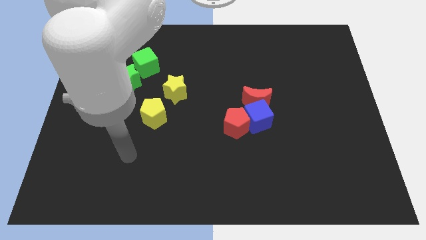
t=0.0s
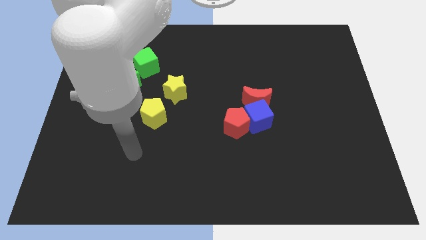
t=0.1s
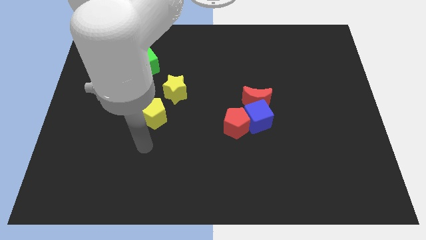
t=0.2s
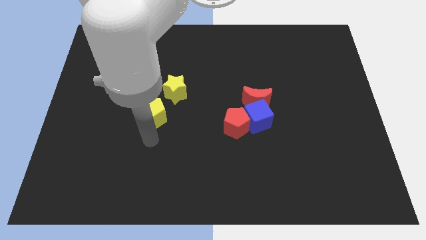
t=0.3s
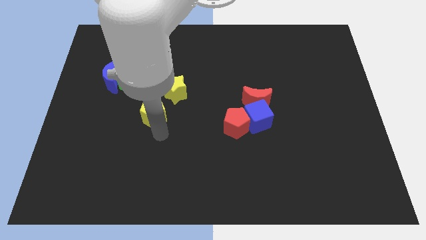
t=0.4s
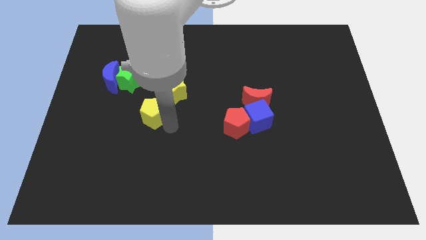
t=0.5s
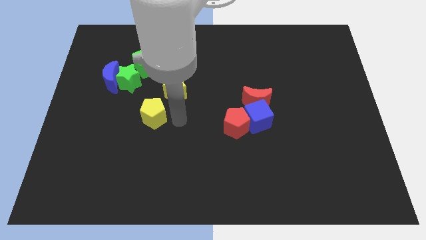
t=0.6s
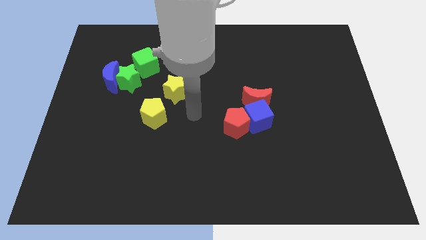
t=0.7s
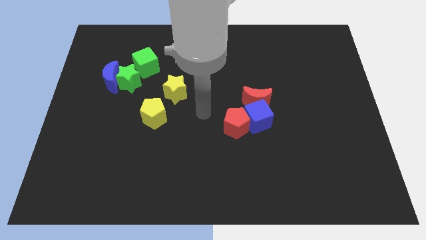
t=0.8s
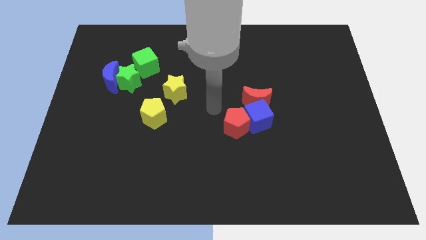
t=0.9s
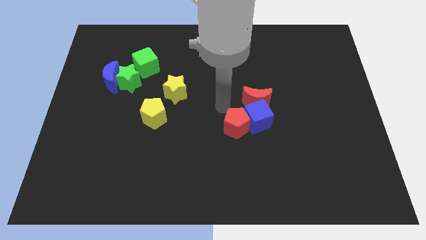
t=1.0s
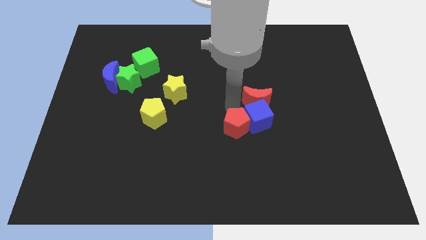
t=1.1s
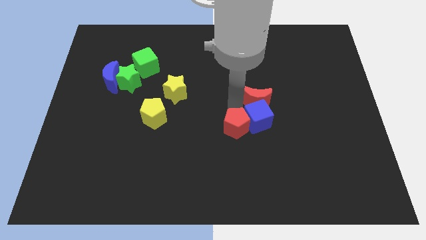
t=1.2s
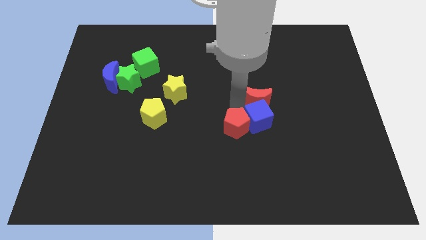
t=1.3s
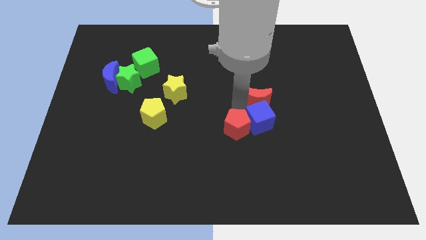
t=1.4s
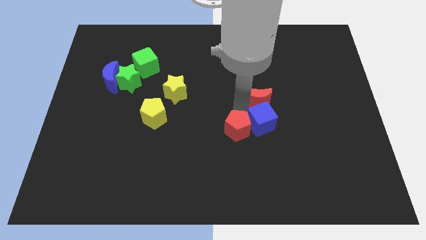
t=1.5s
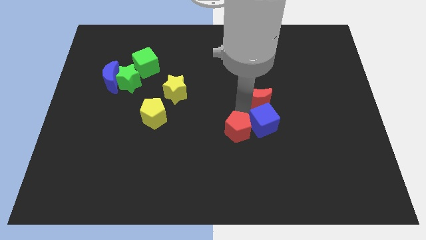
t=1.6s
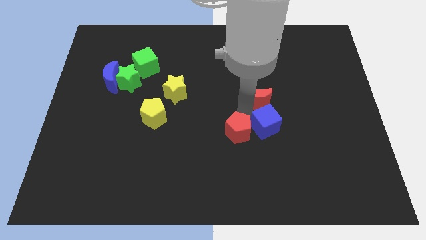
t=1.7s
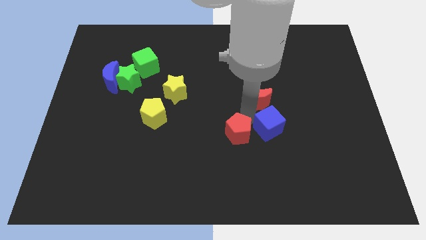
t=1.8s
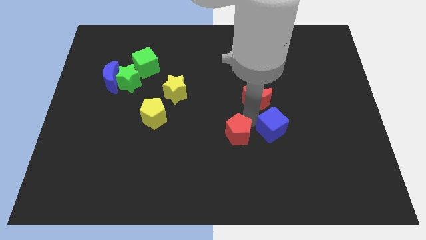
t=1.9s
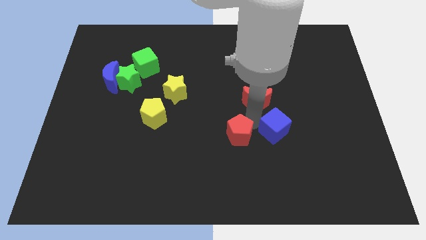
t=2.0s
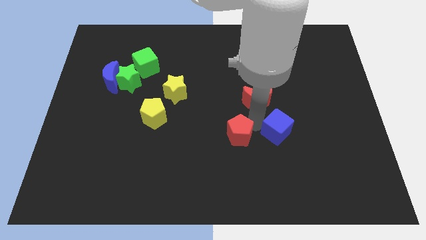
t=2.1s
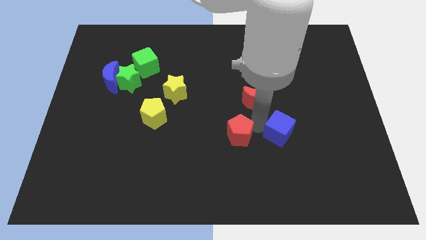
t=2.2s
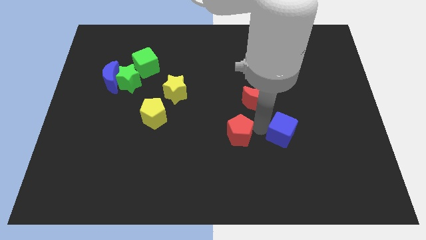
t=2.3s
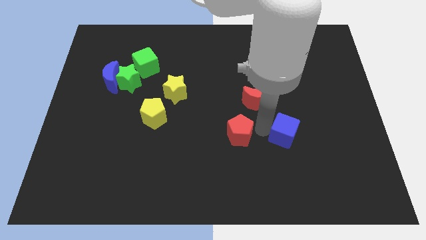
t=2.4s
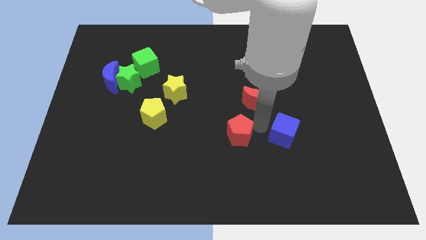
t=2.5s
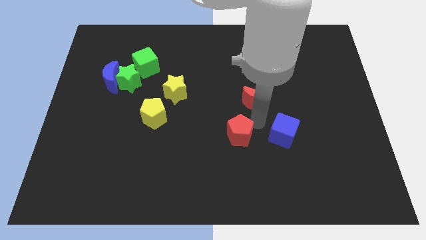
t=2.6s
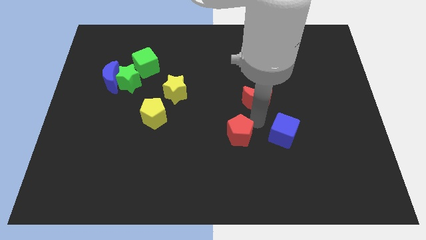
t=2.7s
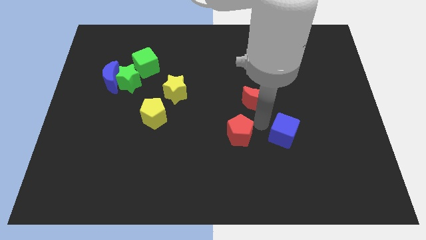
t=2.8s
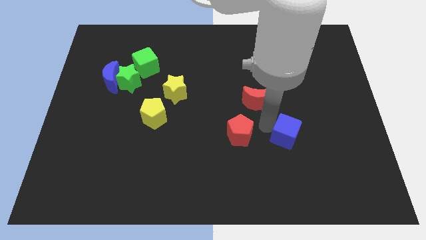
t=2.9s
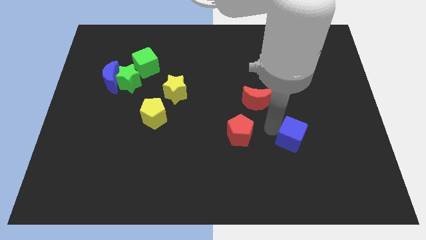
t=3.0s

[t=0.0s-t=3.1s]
move the blue cube away from the red moon and red pentagon

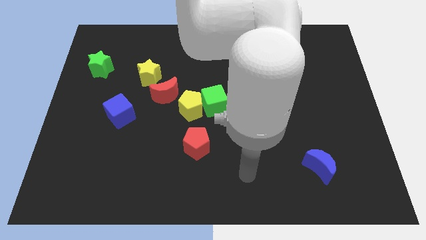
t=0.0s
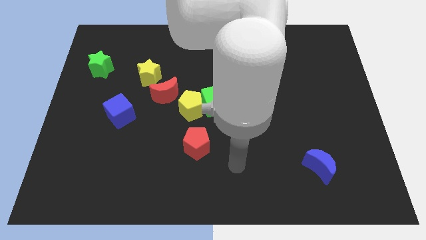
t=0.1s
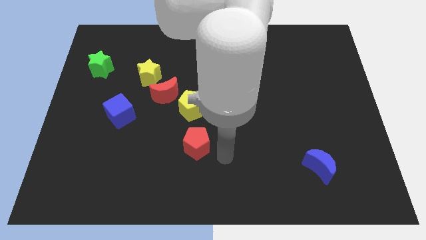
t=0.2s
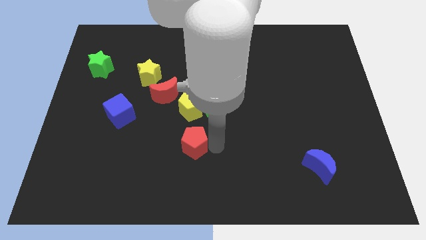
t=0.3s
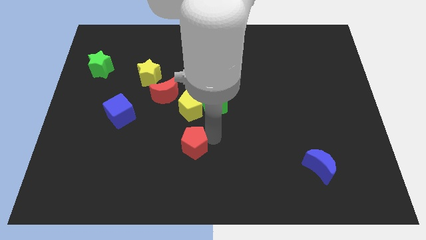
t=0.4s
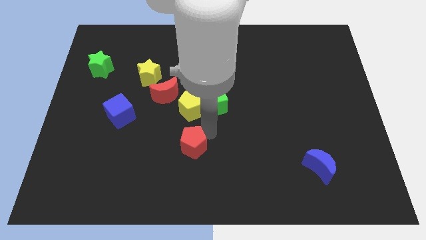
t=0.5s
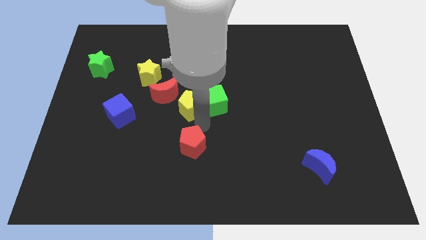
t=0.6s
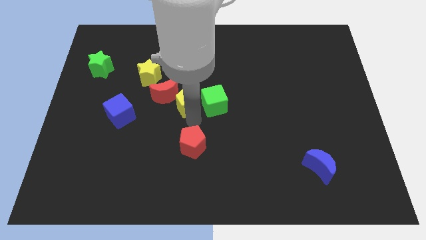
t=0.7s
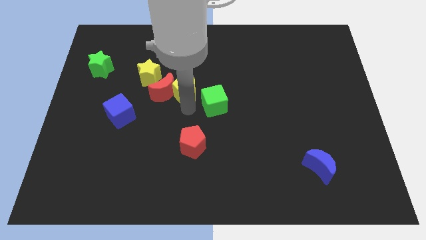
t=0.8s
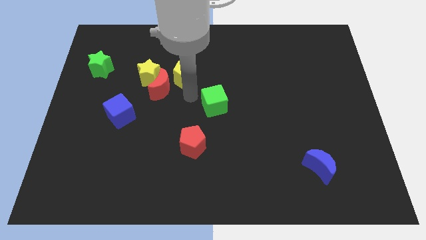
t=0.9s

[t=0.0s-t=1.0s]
separate the green cube from the yellow pentagon

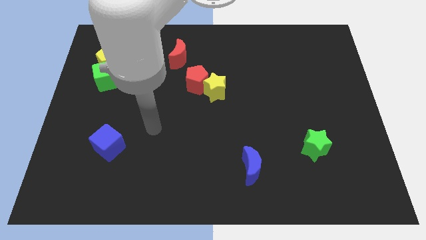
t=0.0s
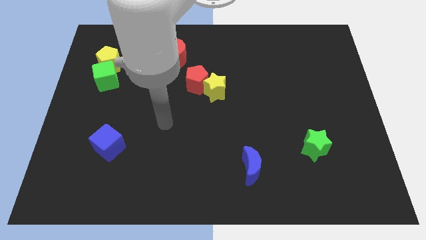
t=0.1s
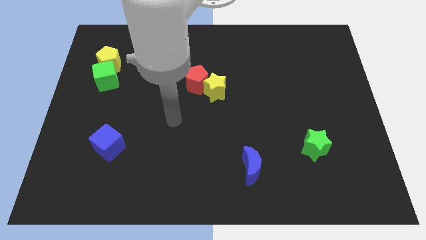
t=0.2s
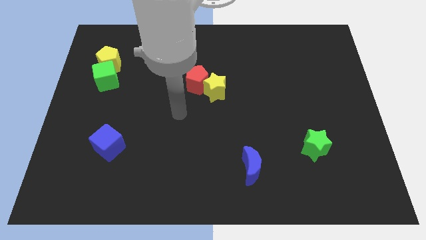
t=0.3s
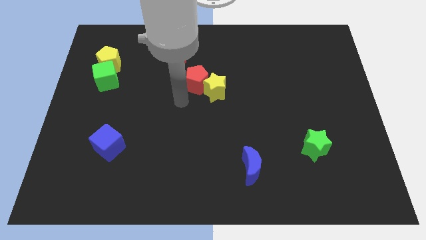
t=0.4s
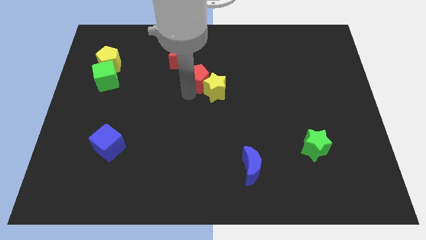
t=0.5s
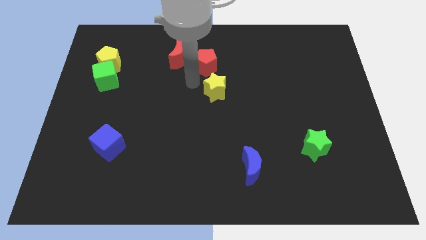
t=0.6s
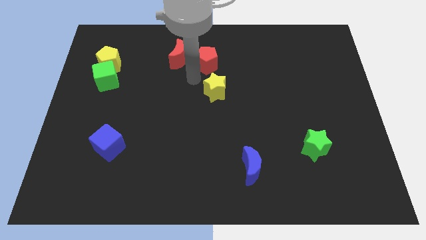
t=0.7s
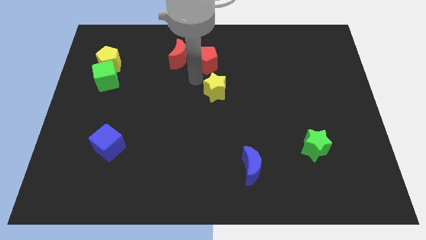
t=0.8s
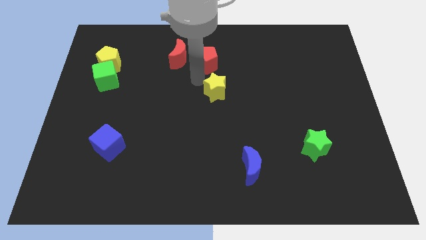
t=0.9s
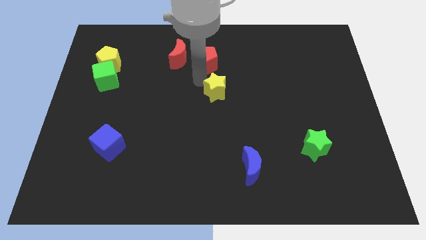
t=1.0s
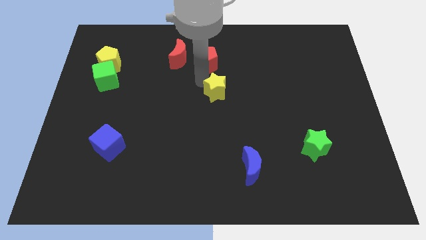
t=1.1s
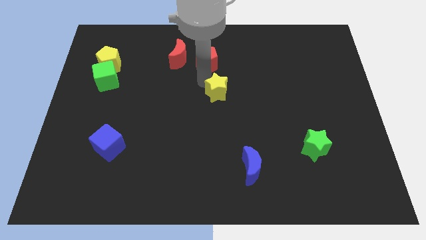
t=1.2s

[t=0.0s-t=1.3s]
pull the yellow star apart from the red pentagon

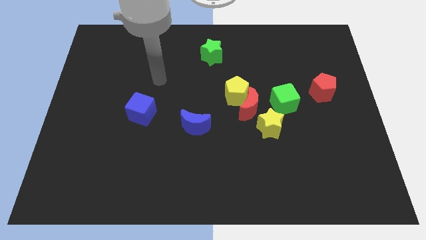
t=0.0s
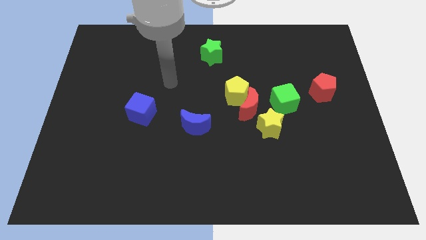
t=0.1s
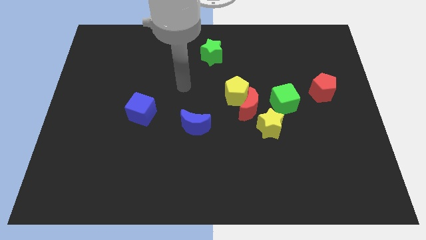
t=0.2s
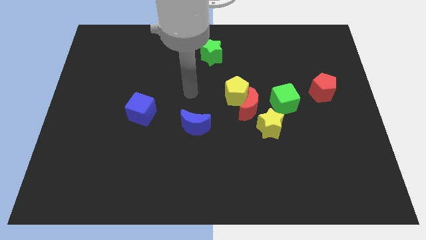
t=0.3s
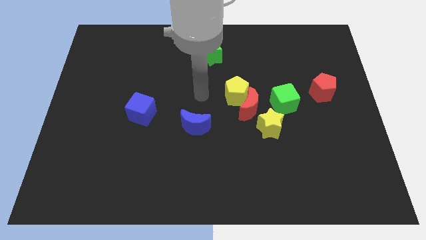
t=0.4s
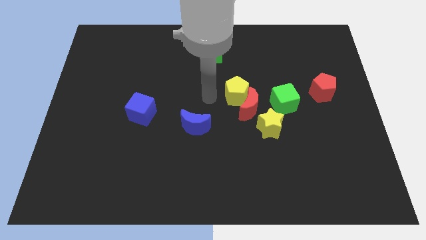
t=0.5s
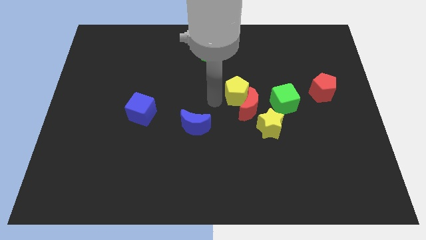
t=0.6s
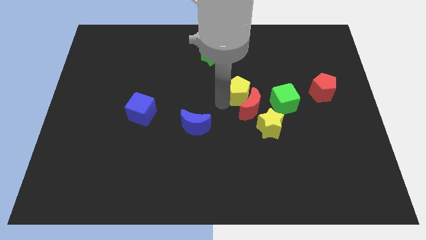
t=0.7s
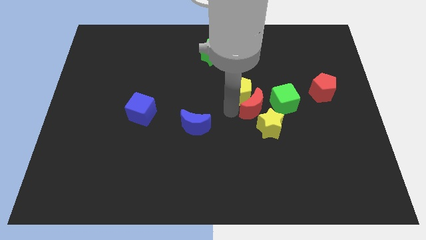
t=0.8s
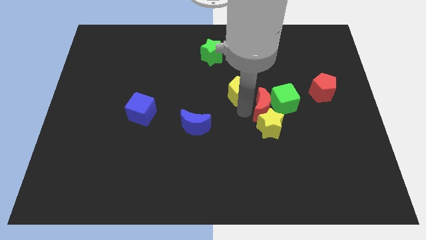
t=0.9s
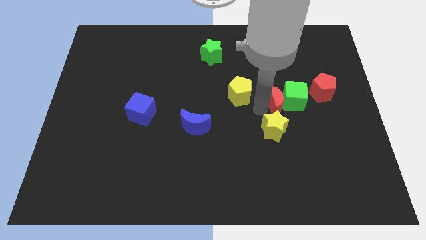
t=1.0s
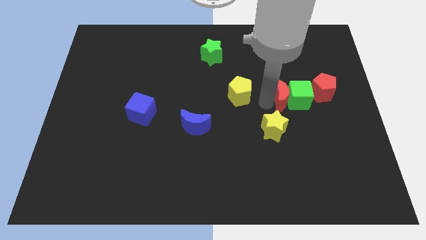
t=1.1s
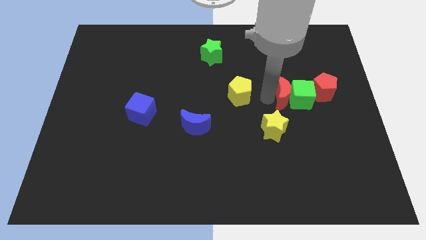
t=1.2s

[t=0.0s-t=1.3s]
move the yellow pentagon away from the red moon

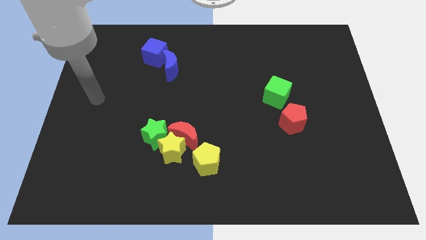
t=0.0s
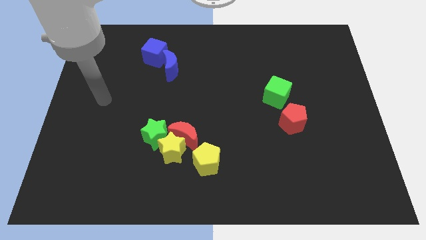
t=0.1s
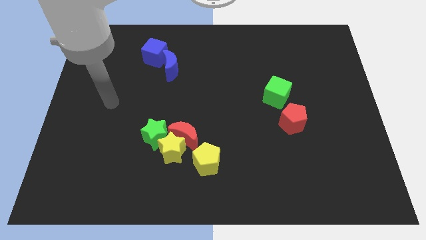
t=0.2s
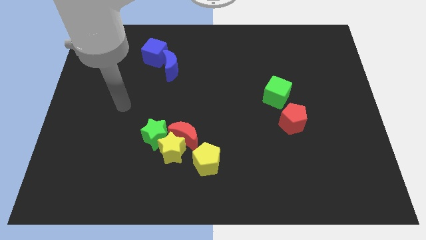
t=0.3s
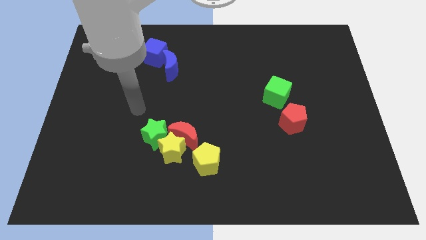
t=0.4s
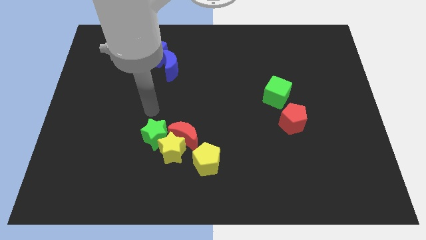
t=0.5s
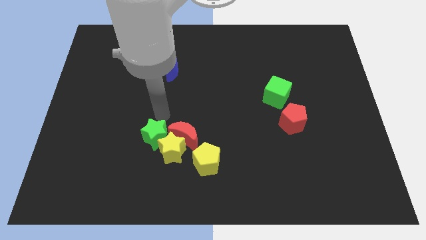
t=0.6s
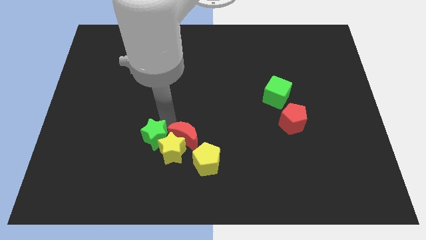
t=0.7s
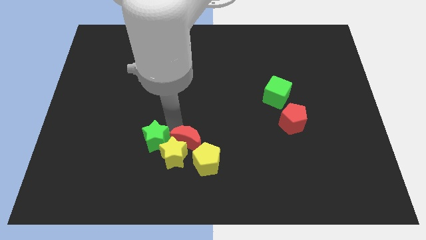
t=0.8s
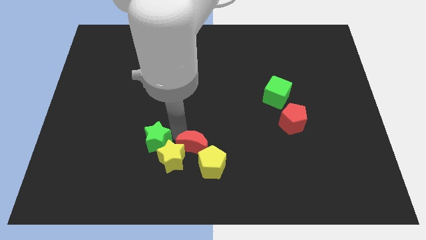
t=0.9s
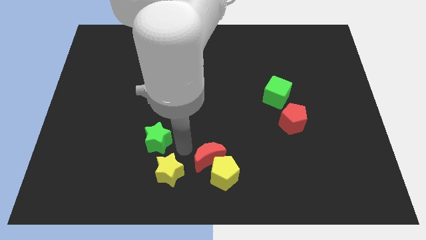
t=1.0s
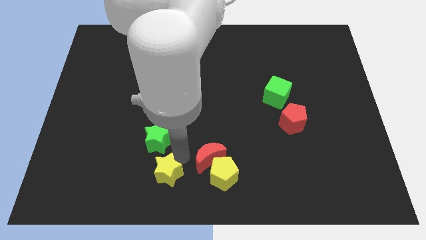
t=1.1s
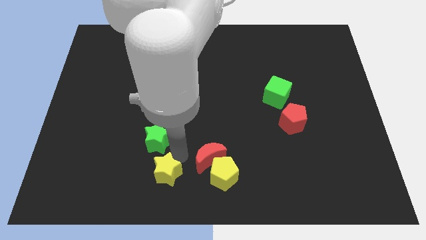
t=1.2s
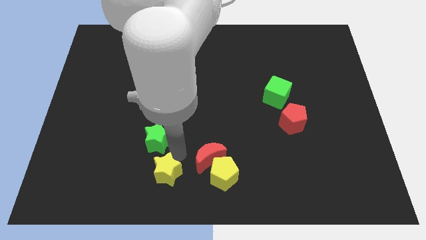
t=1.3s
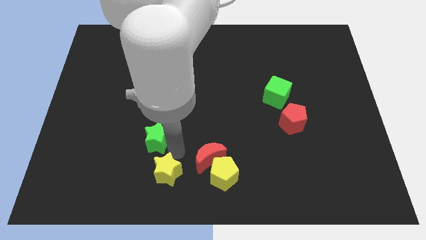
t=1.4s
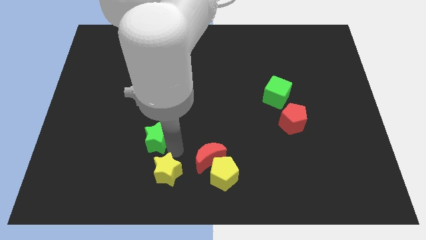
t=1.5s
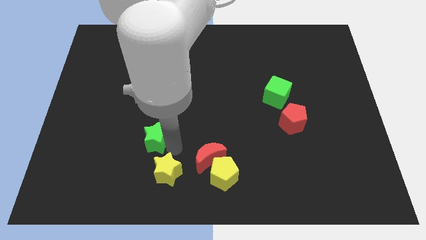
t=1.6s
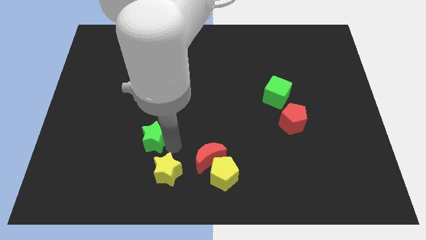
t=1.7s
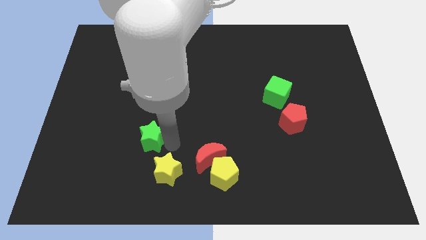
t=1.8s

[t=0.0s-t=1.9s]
move the green star away from the yellow star and red moon

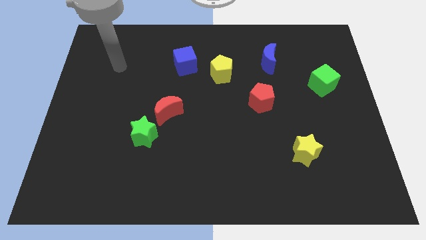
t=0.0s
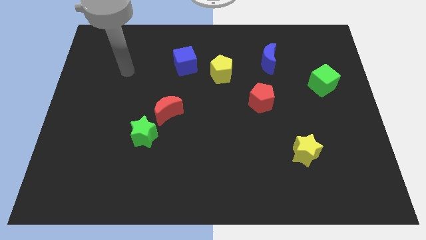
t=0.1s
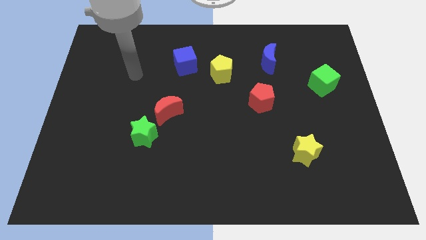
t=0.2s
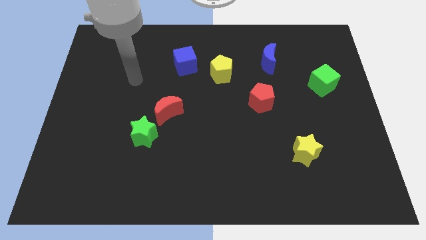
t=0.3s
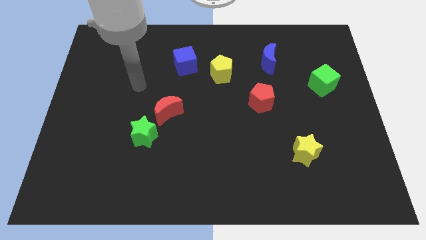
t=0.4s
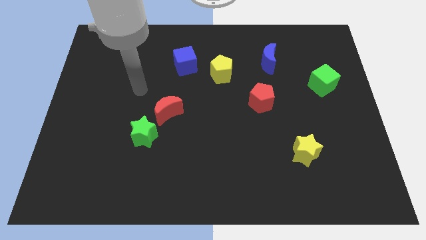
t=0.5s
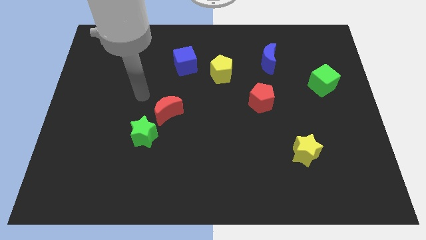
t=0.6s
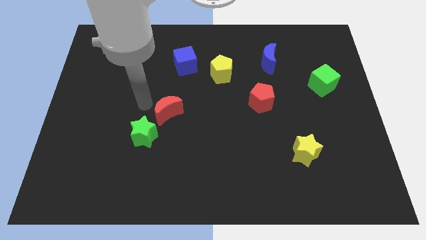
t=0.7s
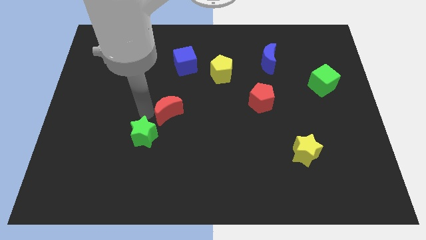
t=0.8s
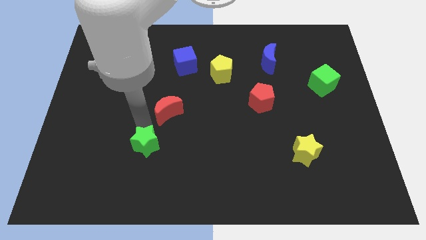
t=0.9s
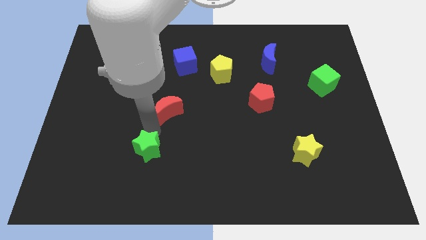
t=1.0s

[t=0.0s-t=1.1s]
separate the red moon from the green star
